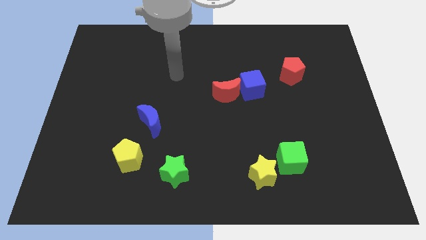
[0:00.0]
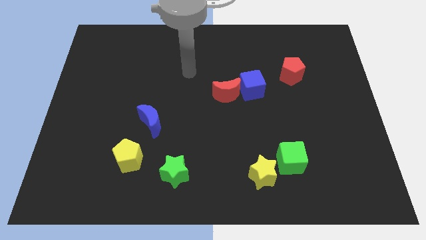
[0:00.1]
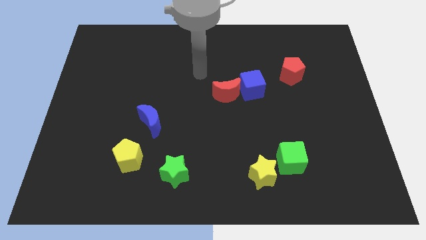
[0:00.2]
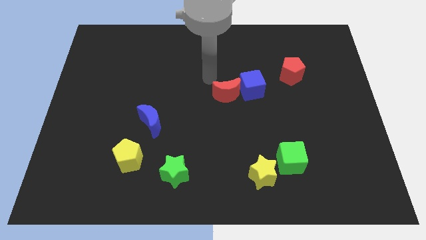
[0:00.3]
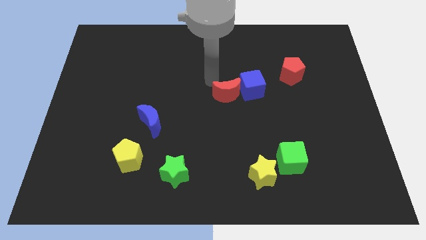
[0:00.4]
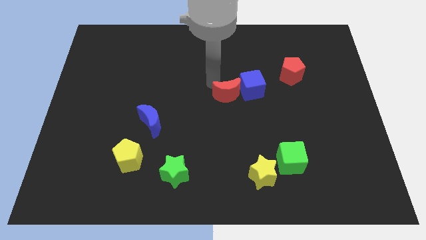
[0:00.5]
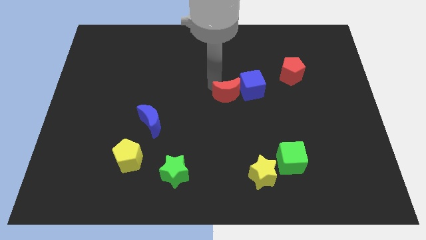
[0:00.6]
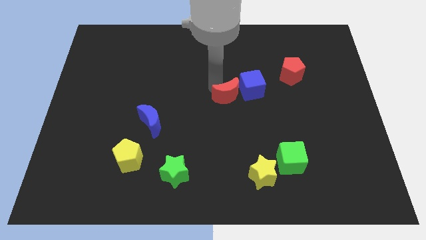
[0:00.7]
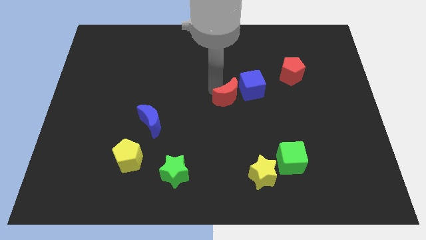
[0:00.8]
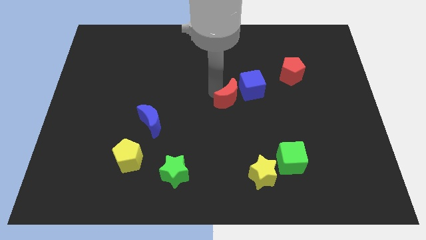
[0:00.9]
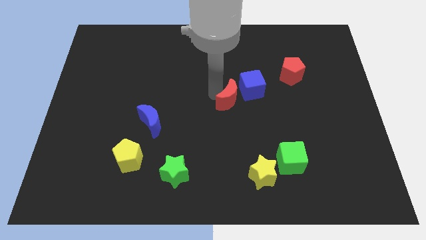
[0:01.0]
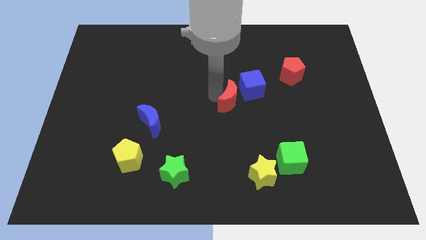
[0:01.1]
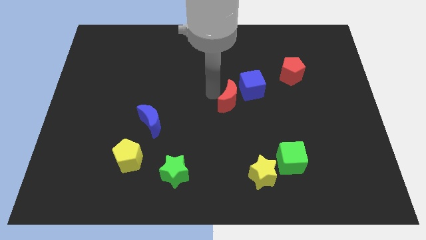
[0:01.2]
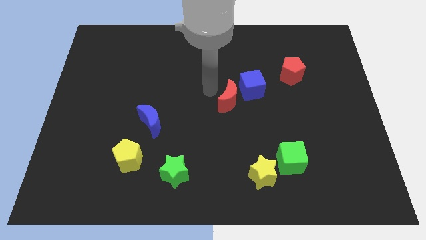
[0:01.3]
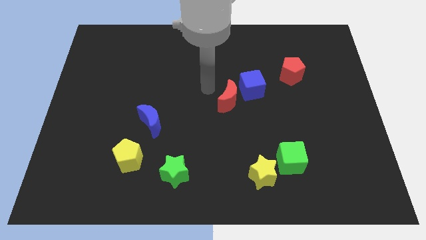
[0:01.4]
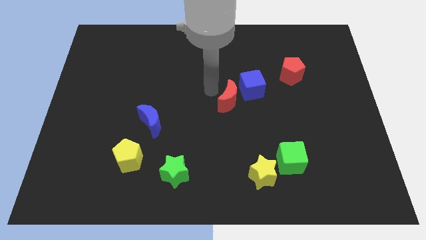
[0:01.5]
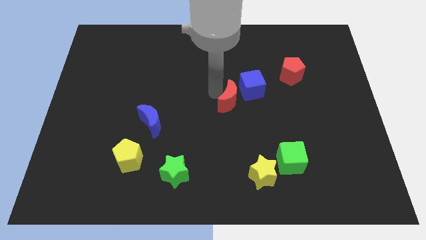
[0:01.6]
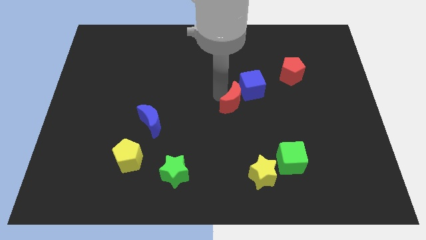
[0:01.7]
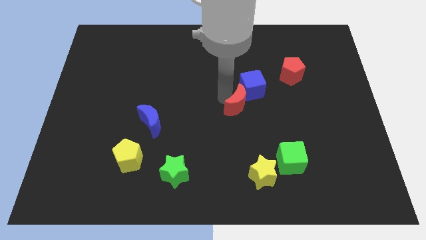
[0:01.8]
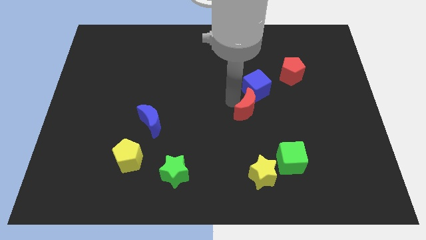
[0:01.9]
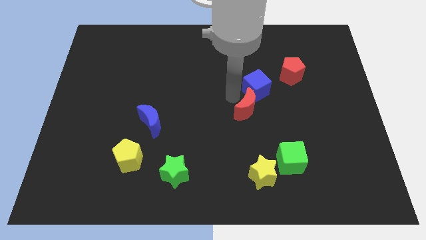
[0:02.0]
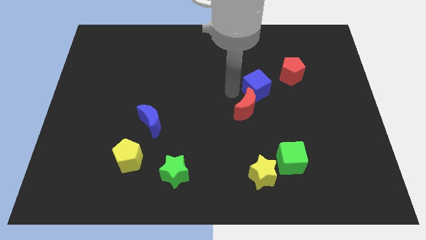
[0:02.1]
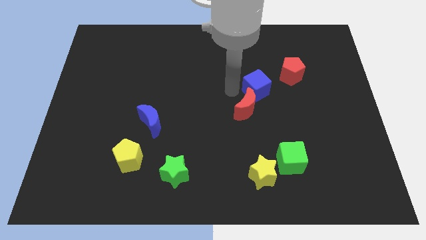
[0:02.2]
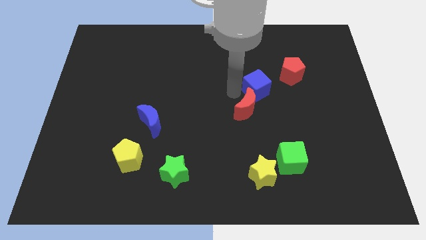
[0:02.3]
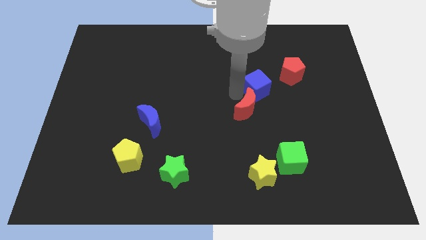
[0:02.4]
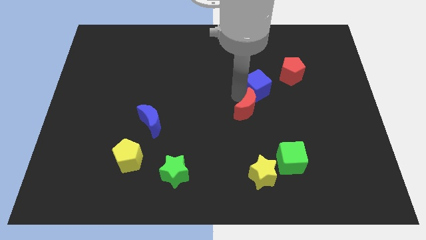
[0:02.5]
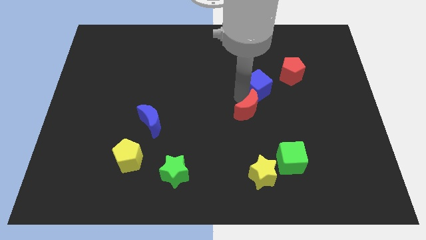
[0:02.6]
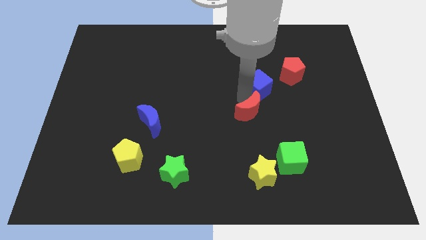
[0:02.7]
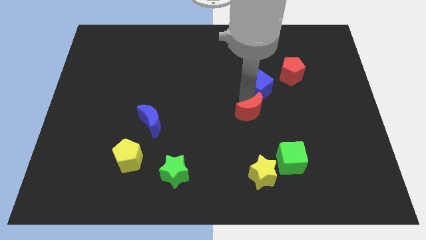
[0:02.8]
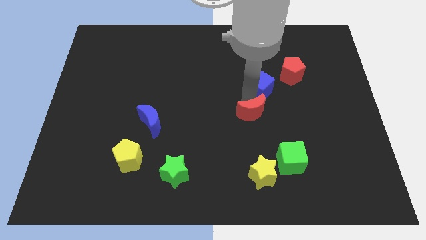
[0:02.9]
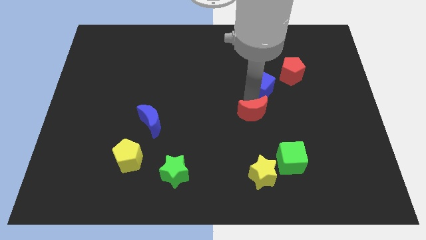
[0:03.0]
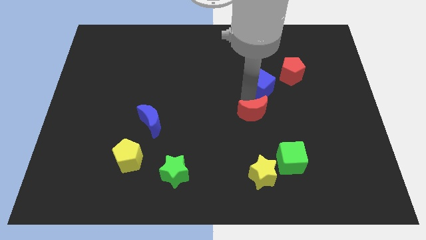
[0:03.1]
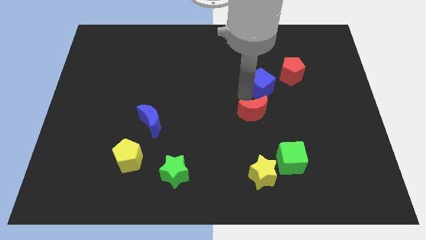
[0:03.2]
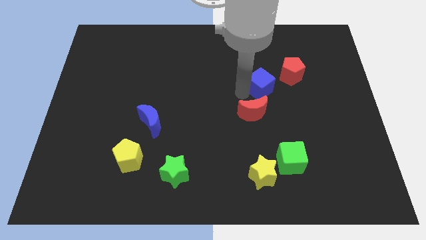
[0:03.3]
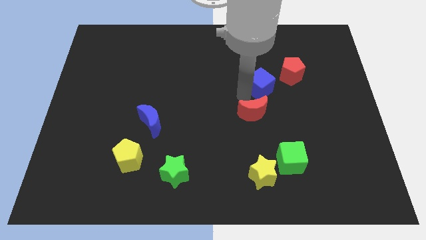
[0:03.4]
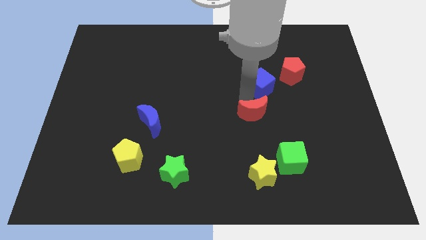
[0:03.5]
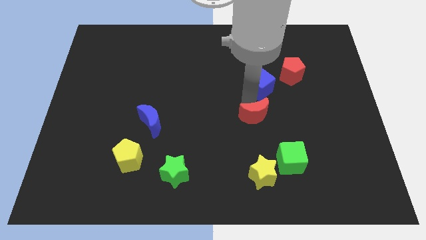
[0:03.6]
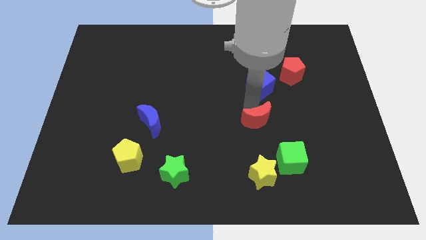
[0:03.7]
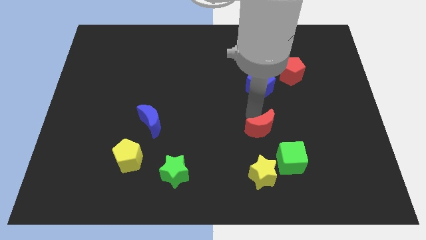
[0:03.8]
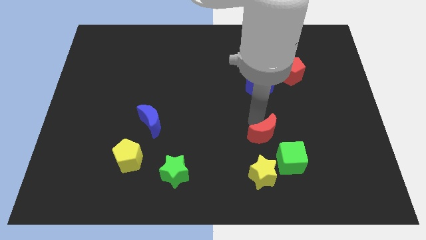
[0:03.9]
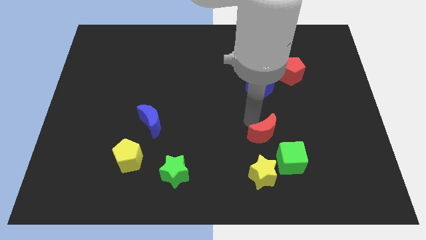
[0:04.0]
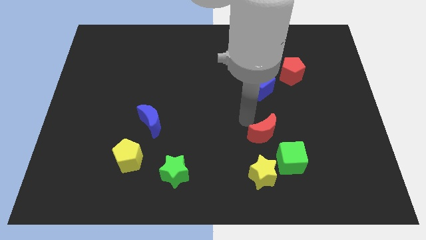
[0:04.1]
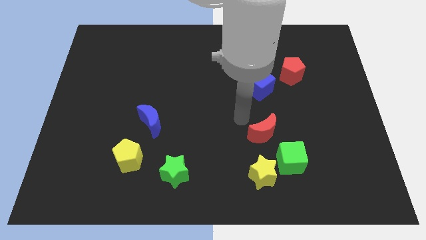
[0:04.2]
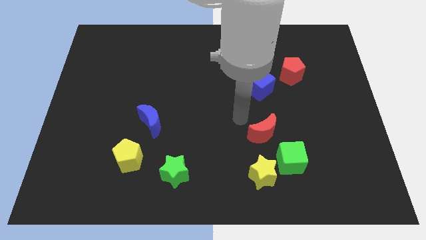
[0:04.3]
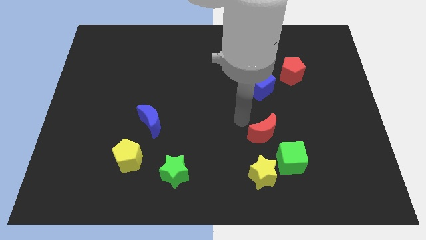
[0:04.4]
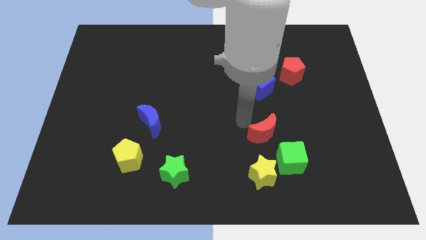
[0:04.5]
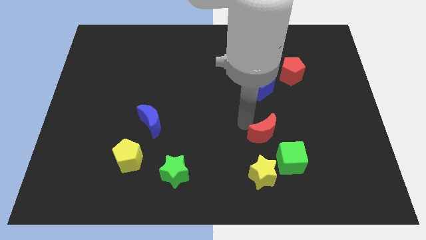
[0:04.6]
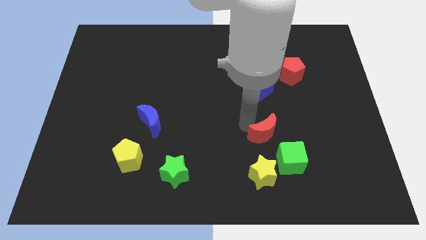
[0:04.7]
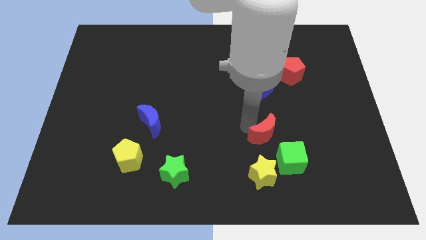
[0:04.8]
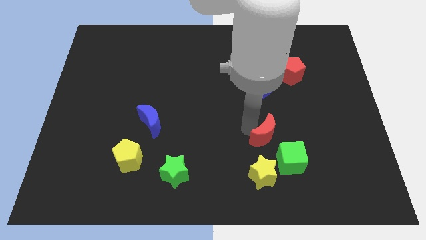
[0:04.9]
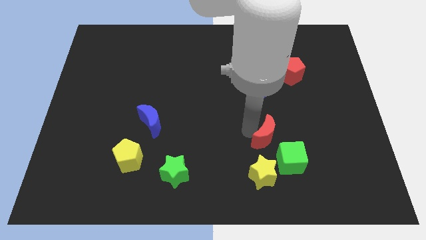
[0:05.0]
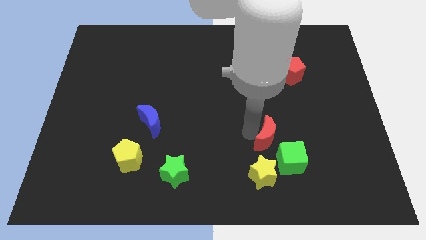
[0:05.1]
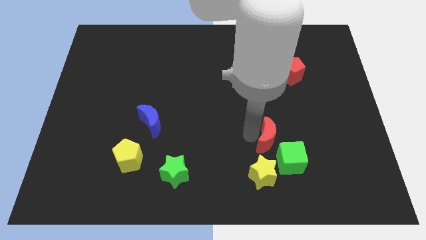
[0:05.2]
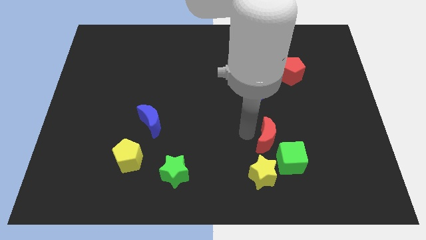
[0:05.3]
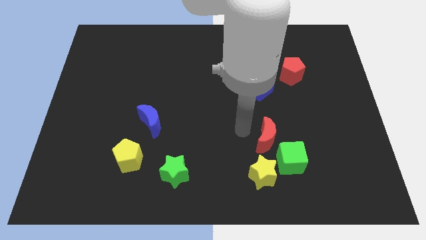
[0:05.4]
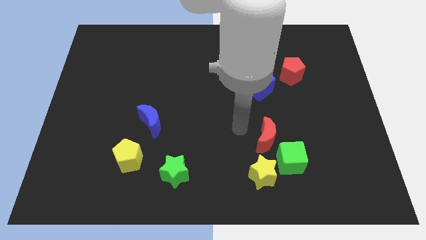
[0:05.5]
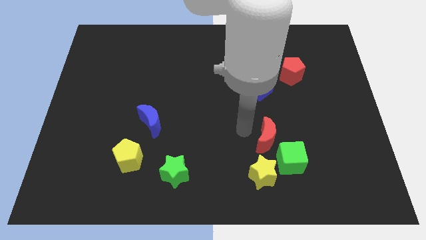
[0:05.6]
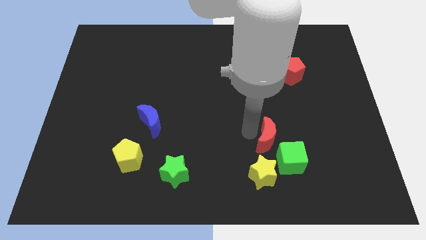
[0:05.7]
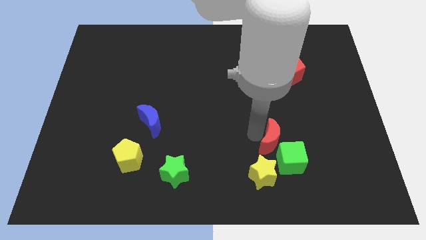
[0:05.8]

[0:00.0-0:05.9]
put the red moon to the green cube

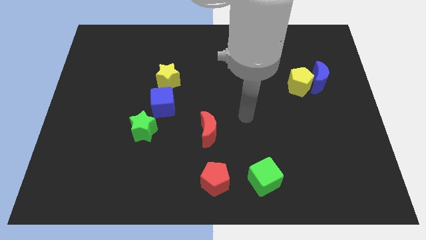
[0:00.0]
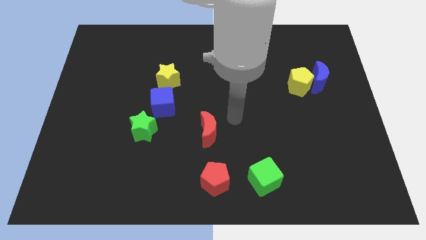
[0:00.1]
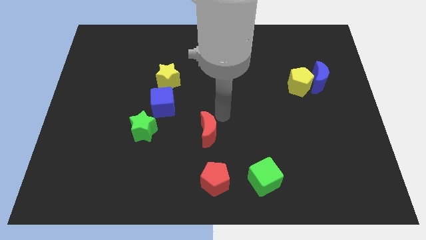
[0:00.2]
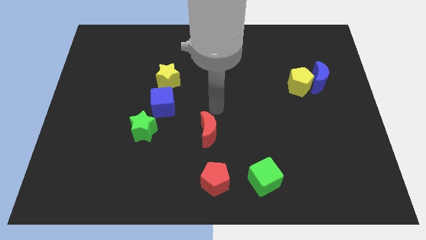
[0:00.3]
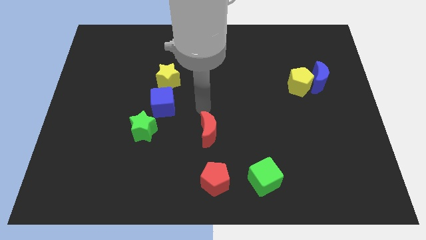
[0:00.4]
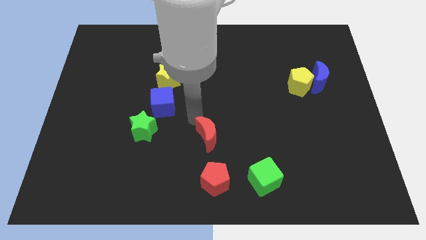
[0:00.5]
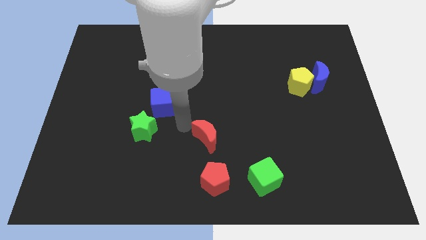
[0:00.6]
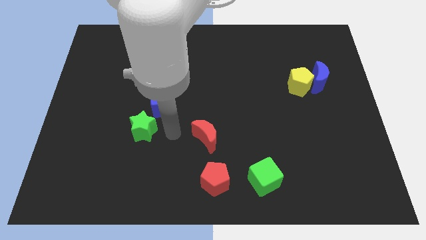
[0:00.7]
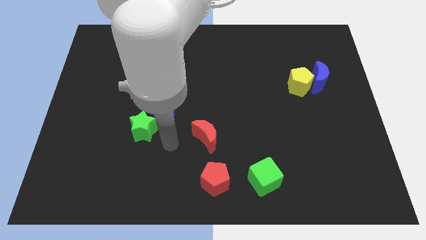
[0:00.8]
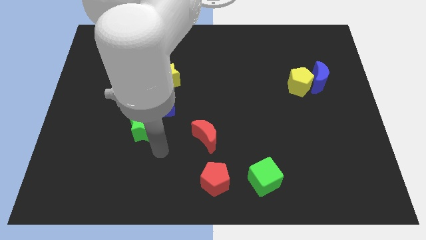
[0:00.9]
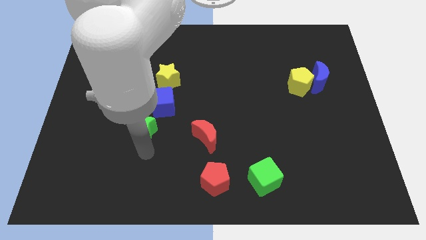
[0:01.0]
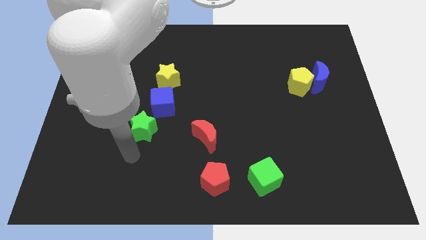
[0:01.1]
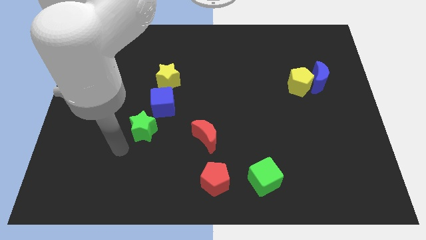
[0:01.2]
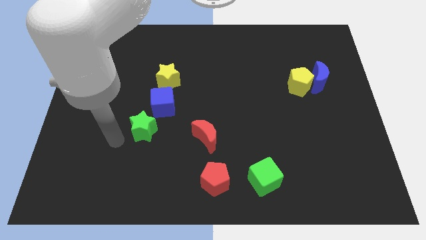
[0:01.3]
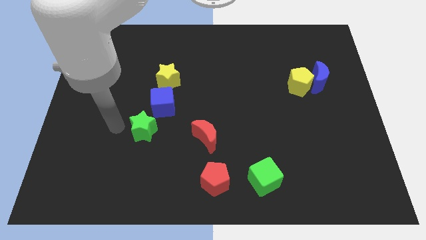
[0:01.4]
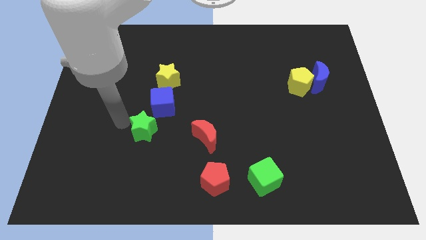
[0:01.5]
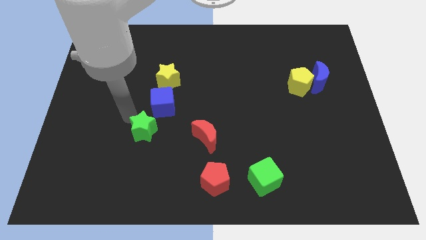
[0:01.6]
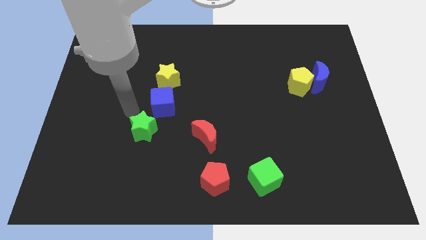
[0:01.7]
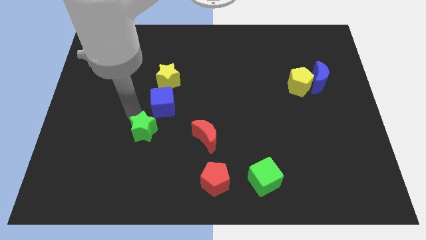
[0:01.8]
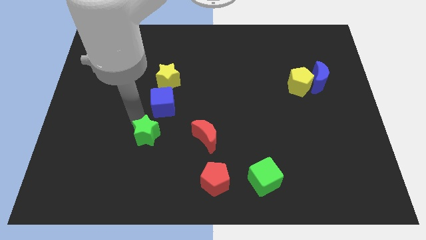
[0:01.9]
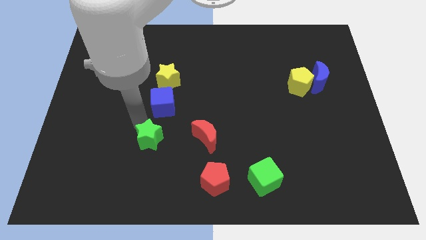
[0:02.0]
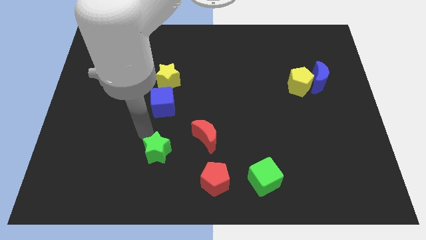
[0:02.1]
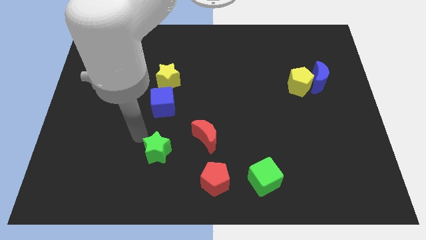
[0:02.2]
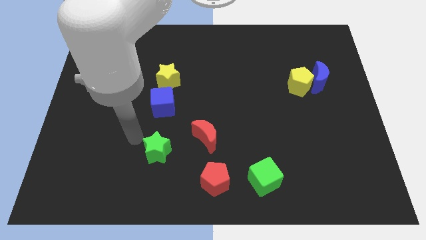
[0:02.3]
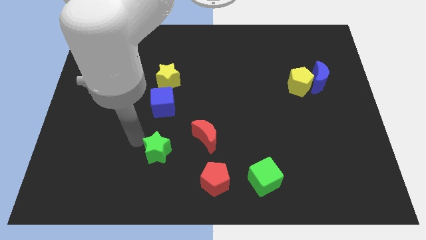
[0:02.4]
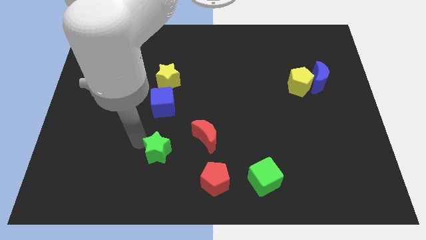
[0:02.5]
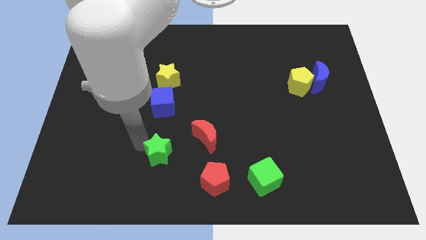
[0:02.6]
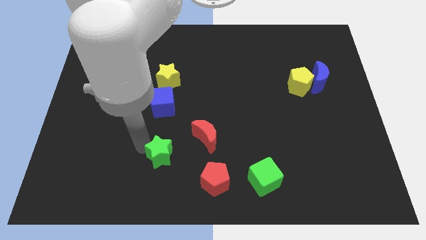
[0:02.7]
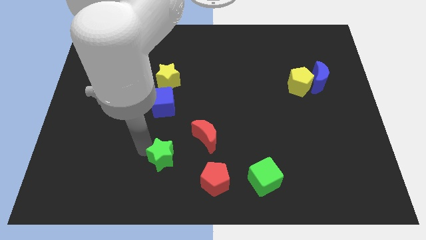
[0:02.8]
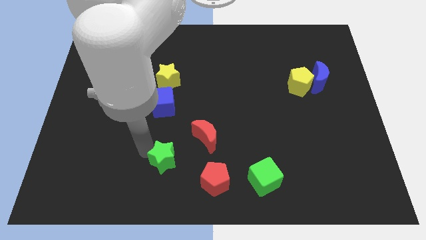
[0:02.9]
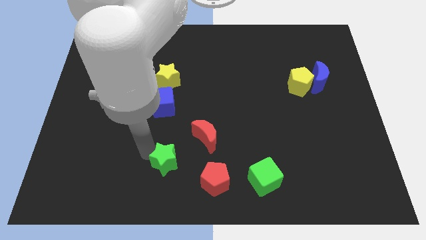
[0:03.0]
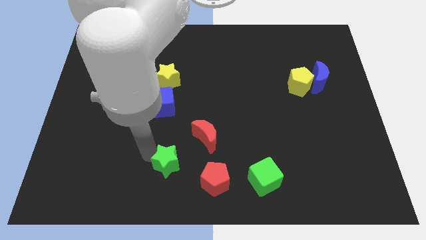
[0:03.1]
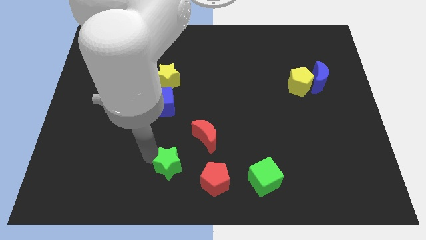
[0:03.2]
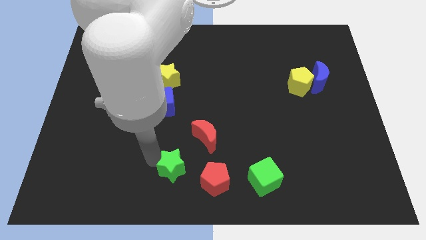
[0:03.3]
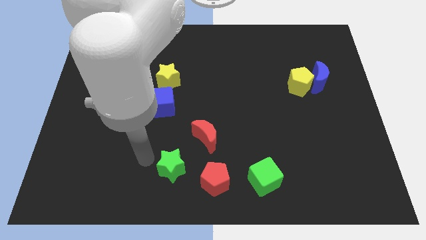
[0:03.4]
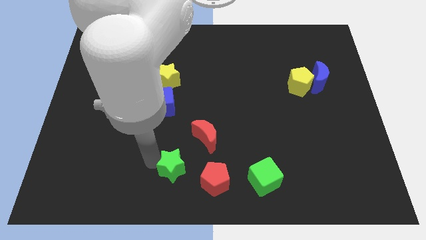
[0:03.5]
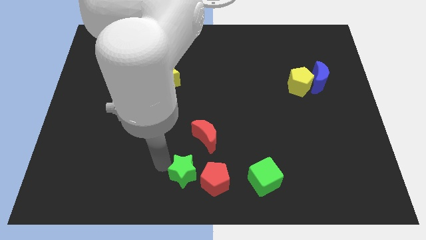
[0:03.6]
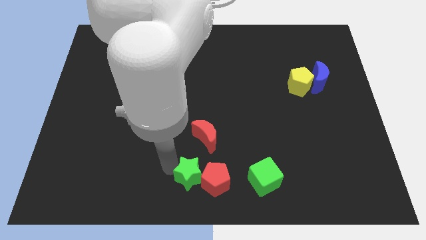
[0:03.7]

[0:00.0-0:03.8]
put the green star to the red pentagon
